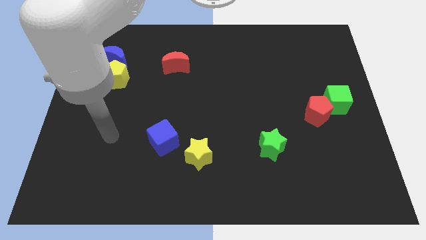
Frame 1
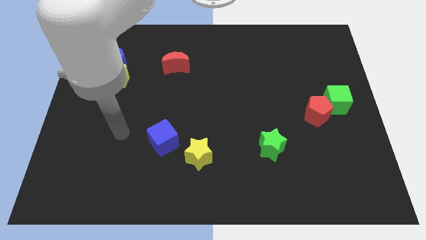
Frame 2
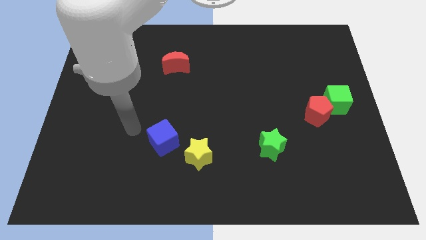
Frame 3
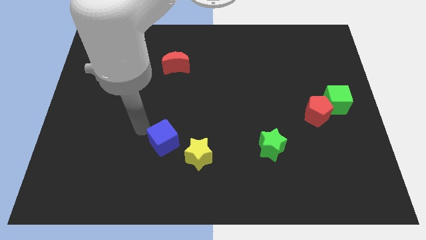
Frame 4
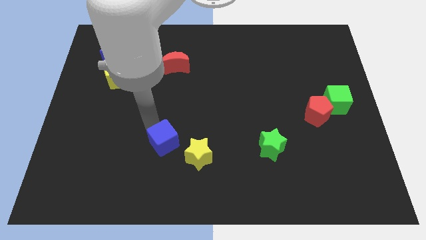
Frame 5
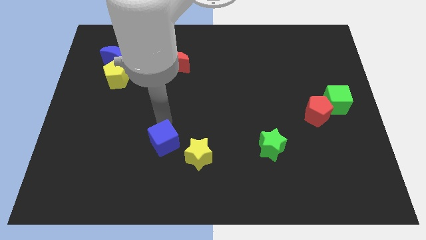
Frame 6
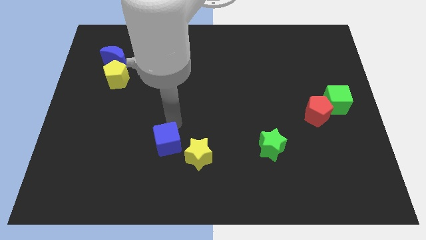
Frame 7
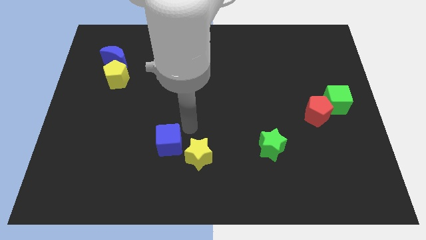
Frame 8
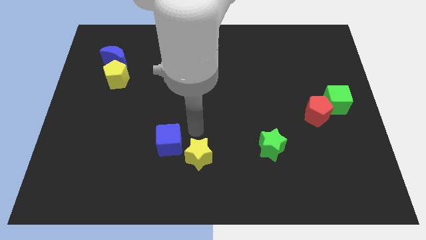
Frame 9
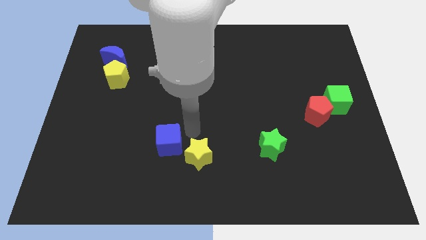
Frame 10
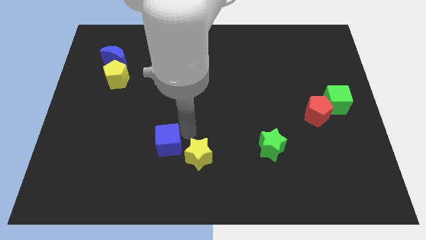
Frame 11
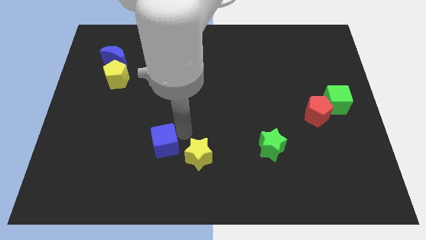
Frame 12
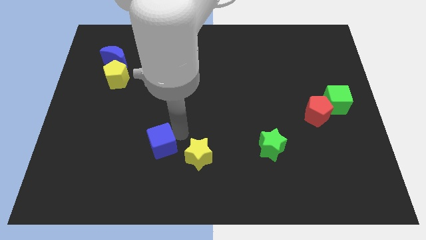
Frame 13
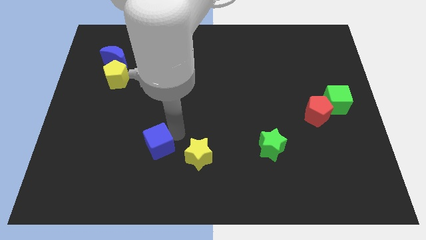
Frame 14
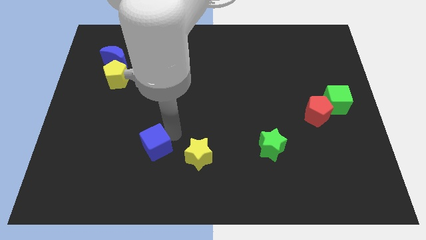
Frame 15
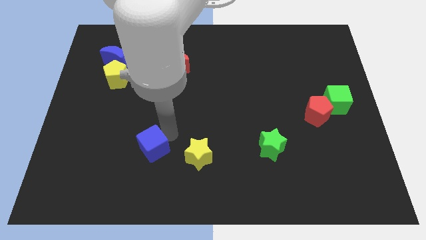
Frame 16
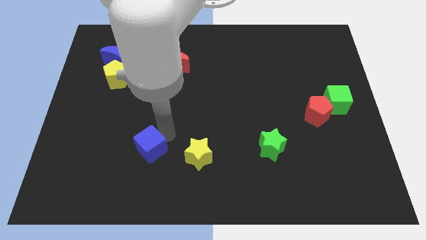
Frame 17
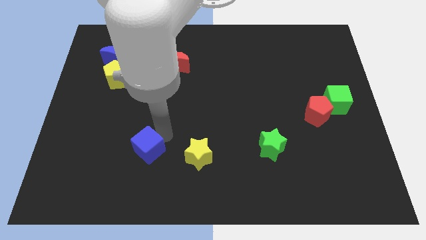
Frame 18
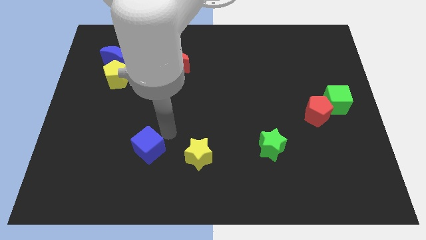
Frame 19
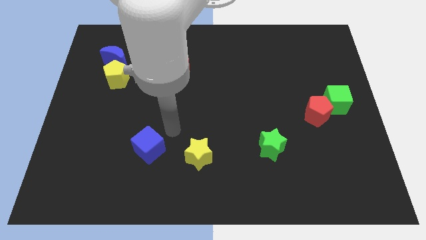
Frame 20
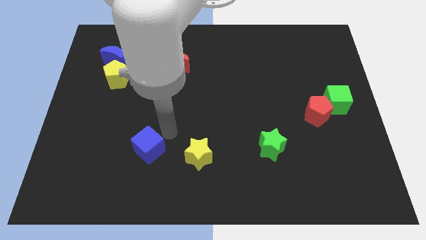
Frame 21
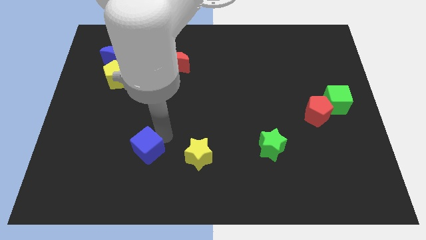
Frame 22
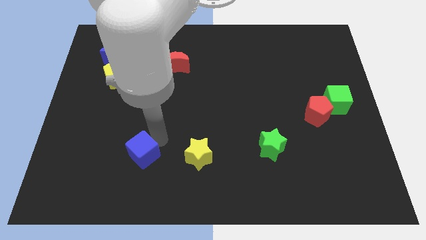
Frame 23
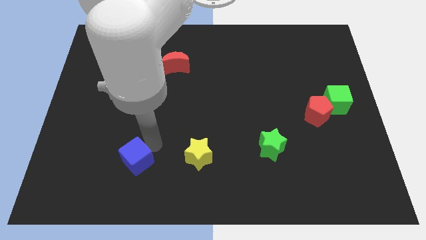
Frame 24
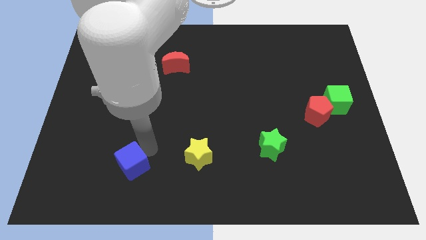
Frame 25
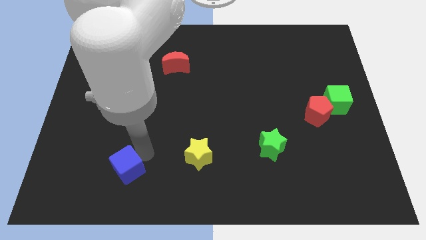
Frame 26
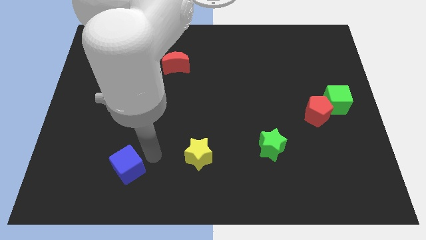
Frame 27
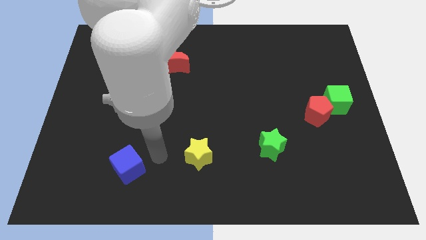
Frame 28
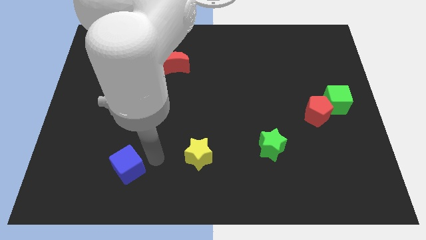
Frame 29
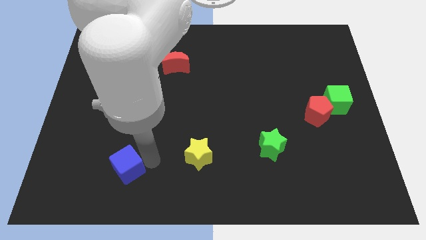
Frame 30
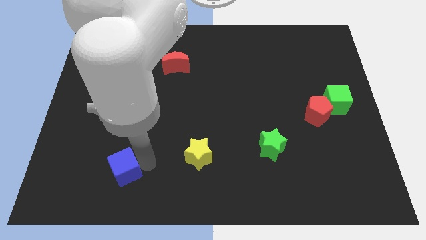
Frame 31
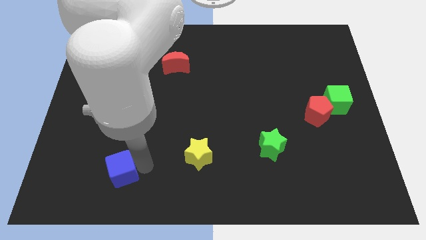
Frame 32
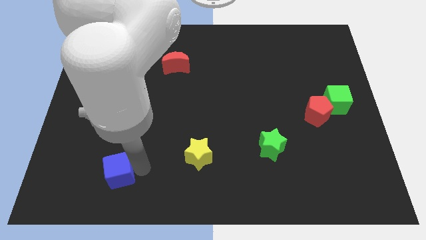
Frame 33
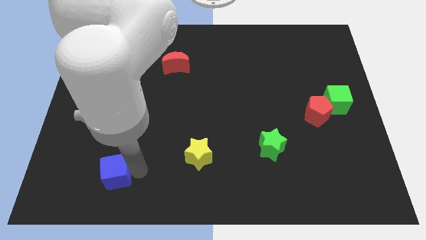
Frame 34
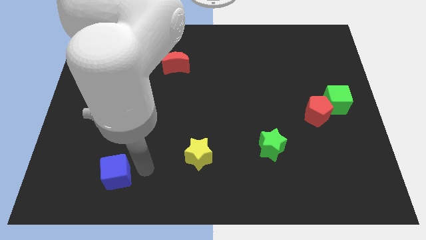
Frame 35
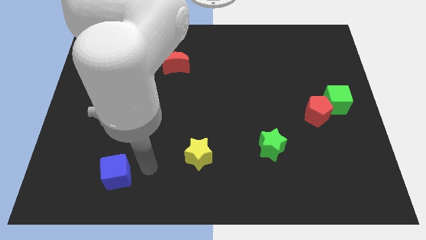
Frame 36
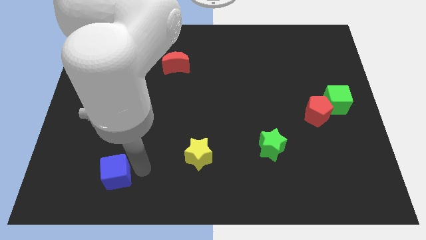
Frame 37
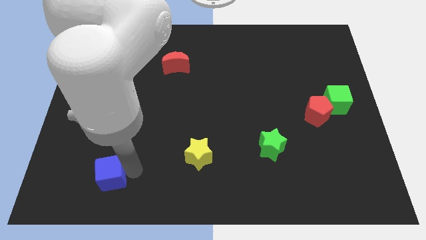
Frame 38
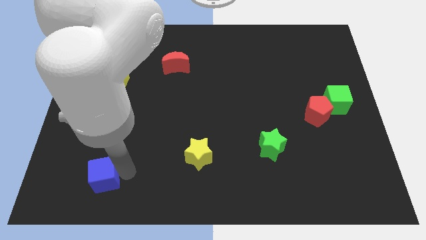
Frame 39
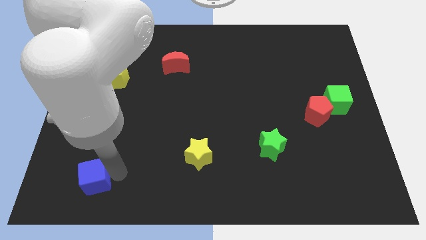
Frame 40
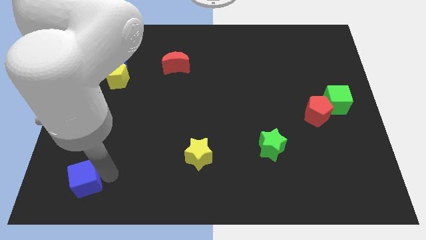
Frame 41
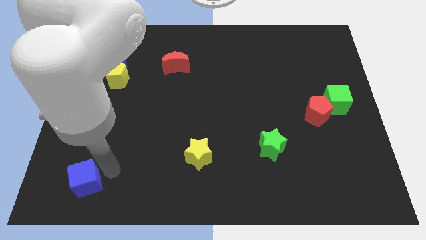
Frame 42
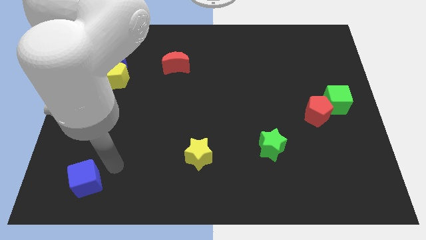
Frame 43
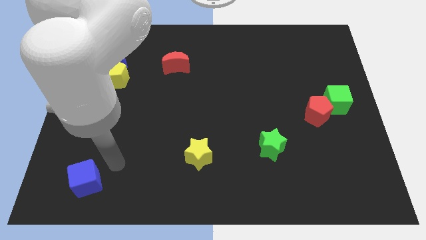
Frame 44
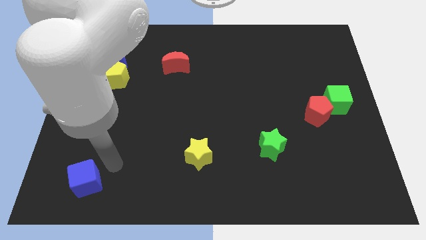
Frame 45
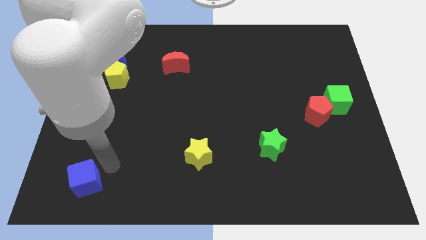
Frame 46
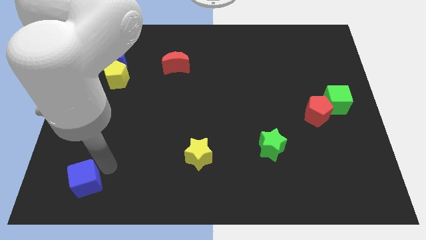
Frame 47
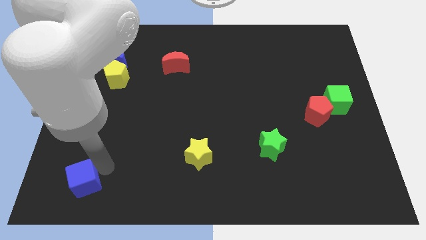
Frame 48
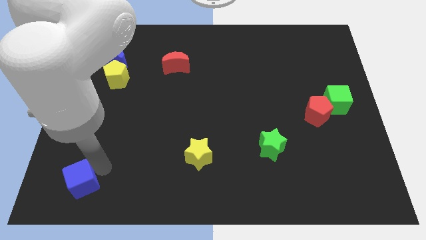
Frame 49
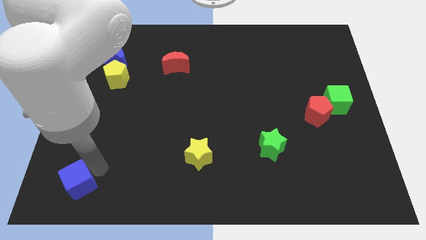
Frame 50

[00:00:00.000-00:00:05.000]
put the blue cube to the bottom left

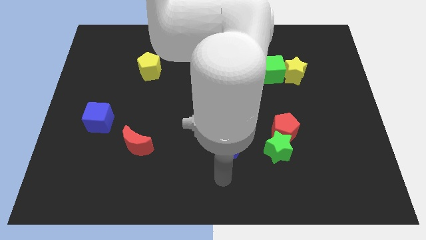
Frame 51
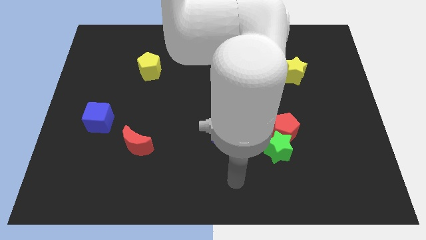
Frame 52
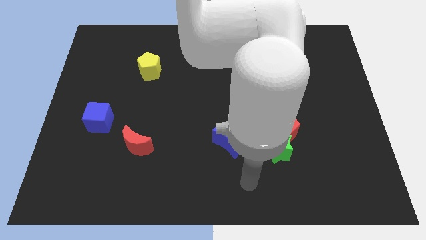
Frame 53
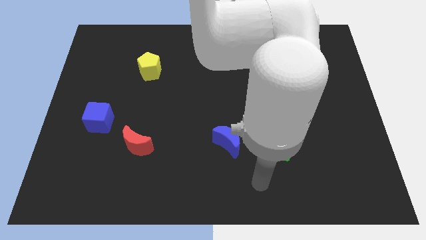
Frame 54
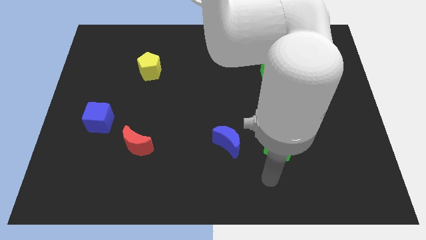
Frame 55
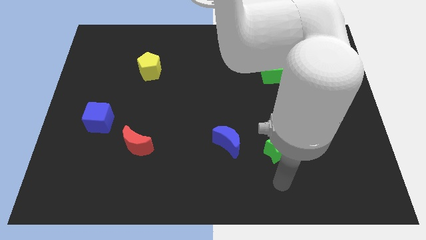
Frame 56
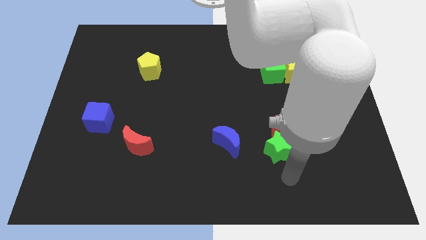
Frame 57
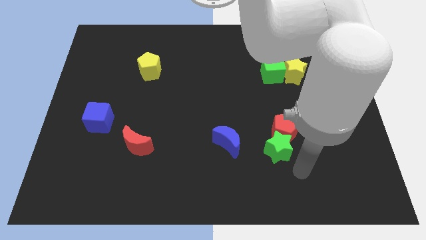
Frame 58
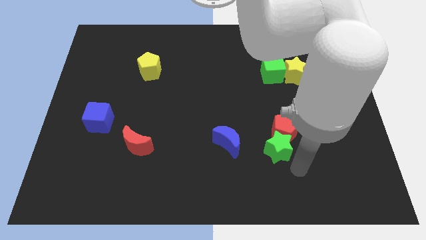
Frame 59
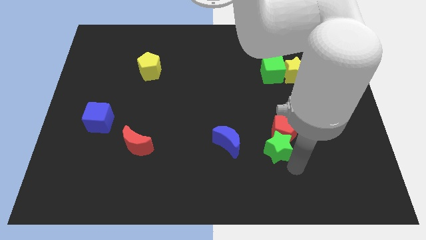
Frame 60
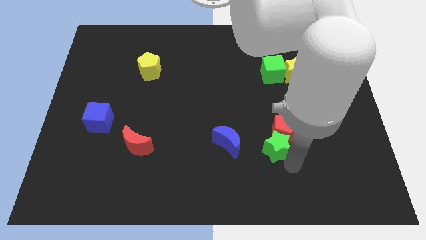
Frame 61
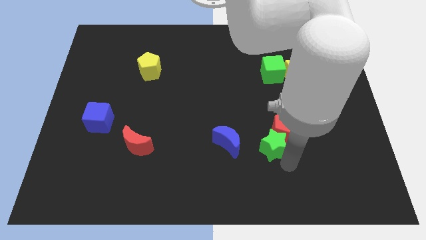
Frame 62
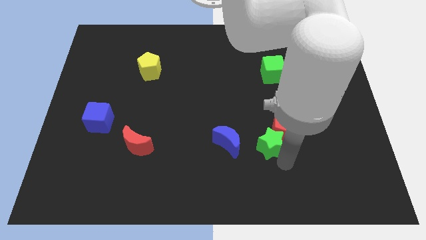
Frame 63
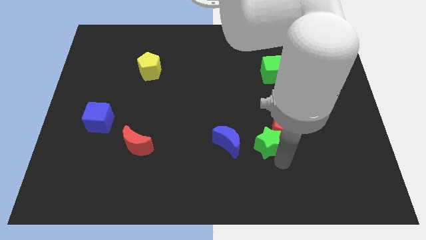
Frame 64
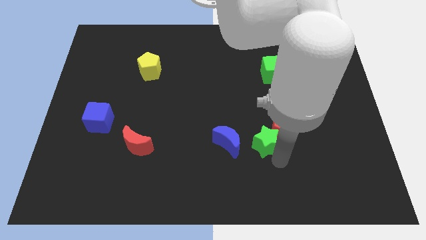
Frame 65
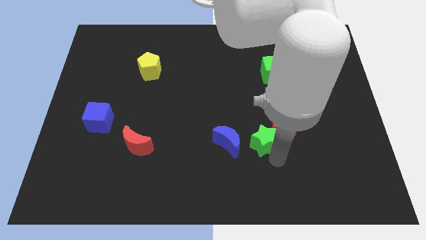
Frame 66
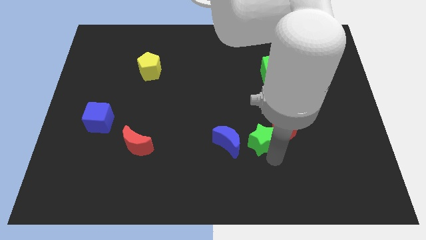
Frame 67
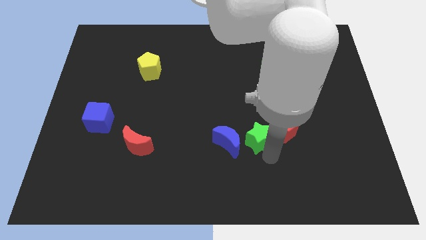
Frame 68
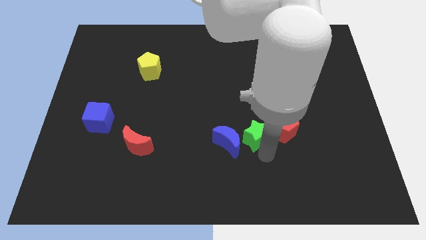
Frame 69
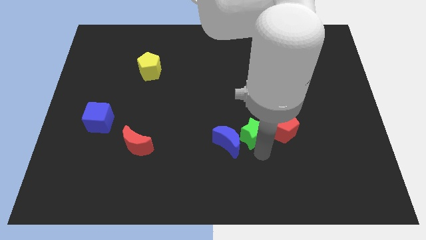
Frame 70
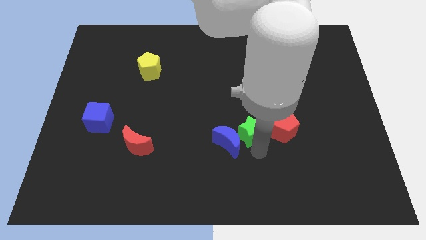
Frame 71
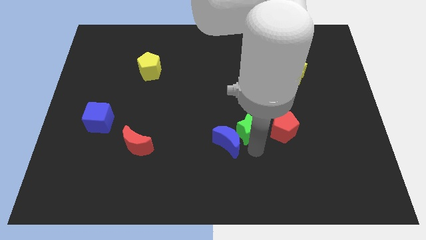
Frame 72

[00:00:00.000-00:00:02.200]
move the green star to the center of the board
